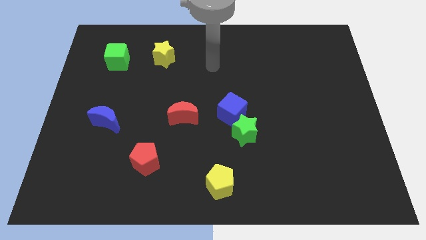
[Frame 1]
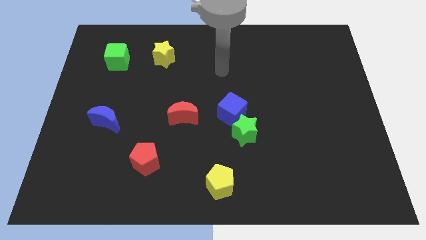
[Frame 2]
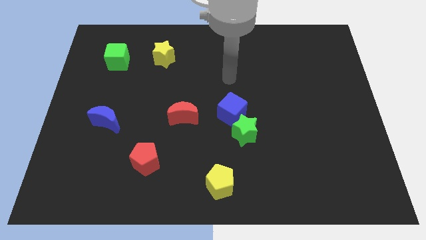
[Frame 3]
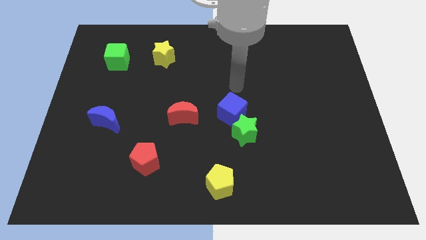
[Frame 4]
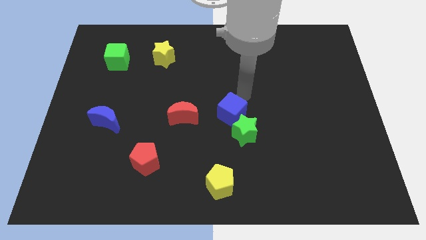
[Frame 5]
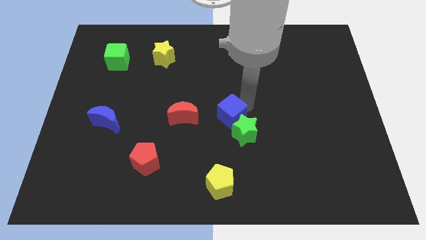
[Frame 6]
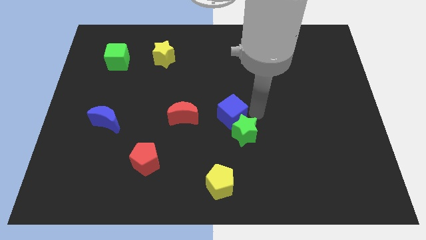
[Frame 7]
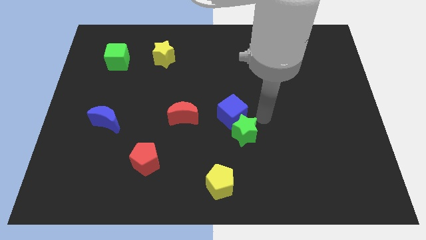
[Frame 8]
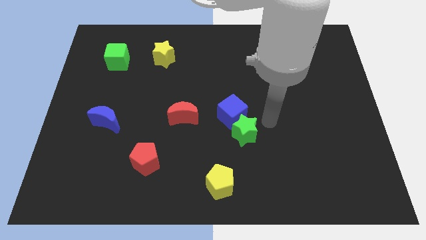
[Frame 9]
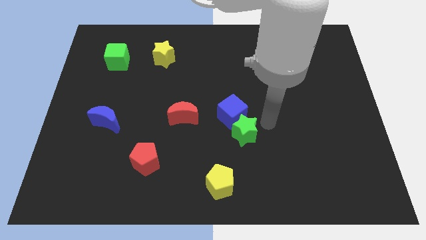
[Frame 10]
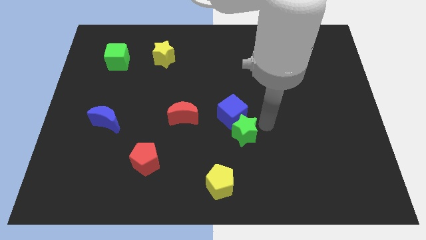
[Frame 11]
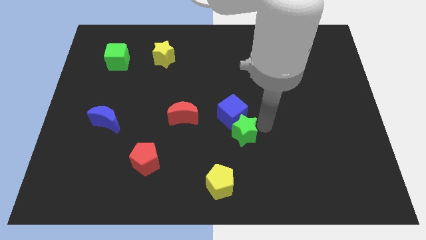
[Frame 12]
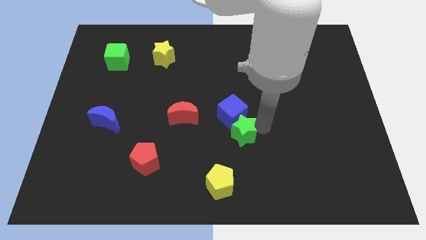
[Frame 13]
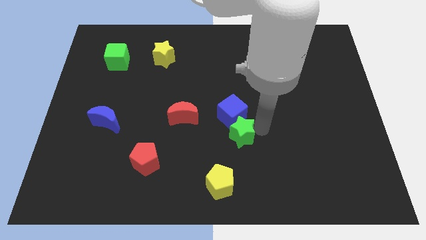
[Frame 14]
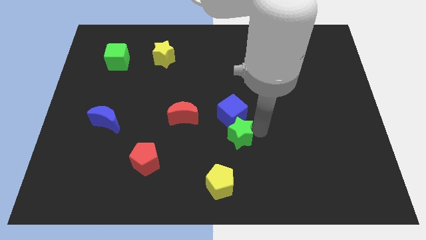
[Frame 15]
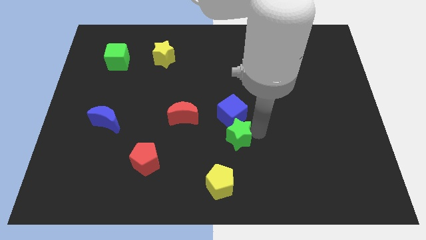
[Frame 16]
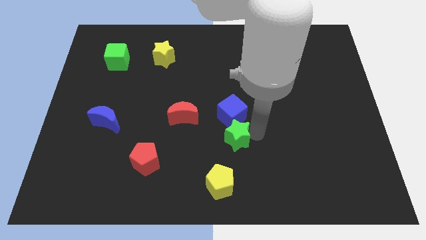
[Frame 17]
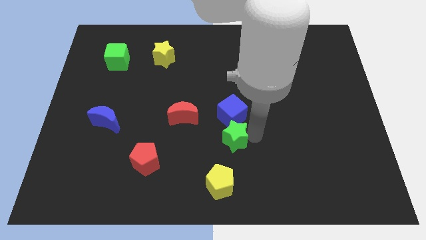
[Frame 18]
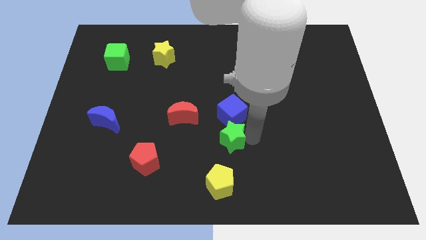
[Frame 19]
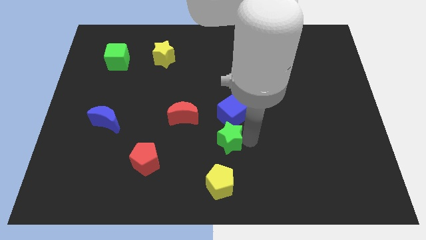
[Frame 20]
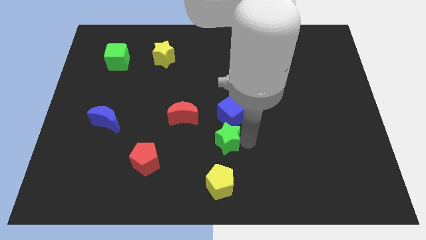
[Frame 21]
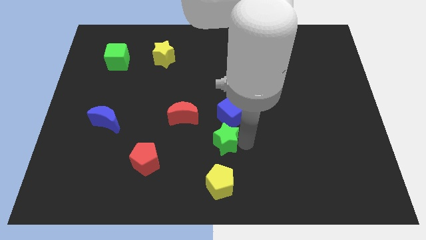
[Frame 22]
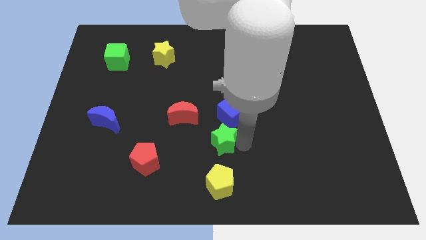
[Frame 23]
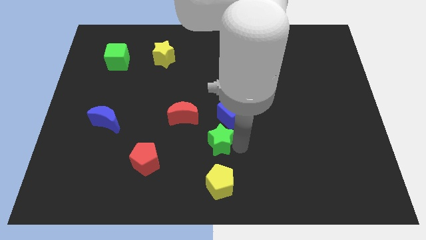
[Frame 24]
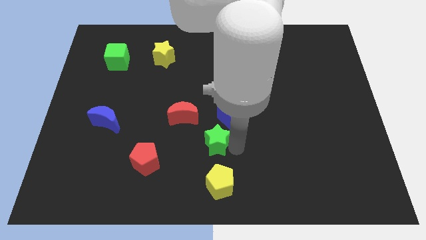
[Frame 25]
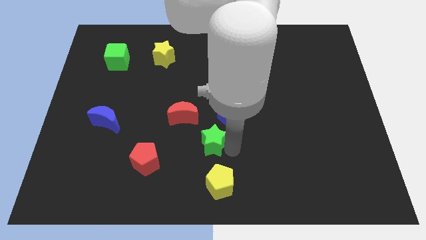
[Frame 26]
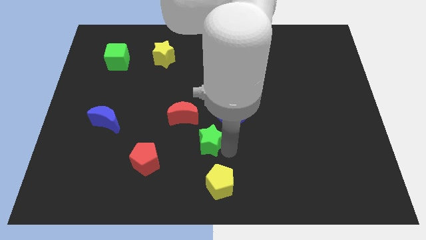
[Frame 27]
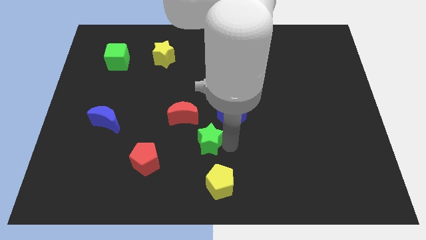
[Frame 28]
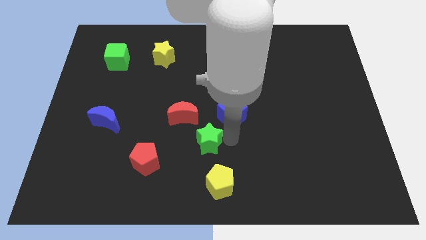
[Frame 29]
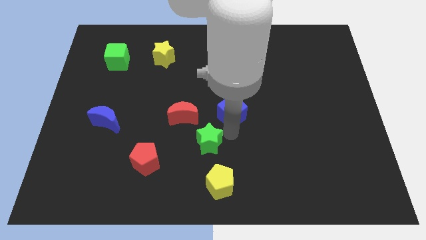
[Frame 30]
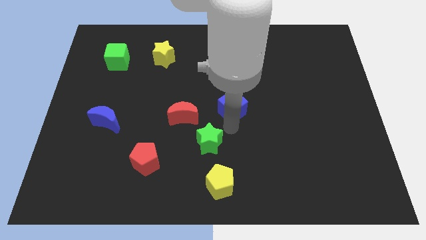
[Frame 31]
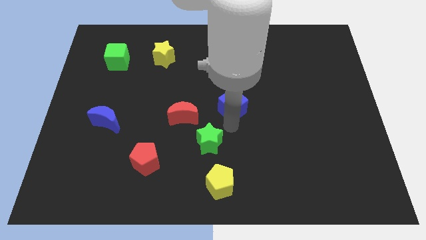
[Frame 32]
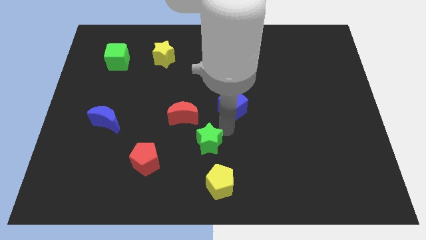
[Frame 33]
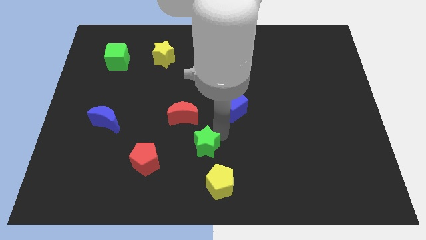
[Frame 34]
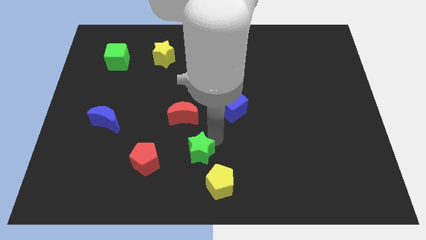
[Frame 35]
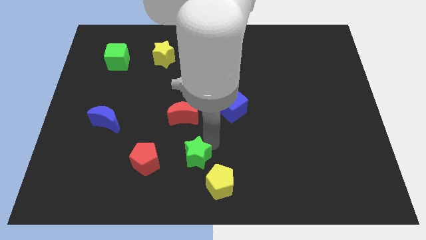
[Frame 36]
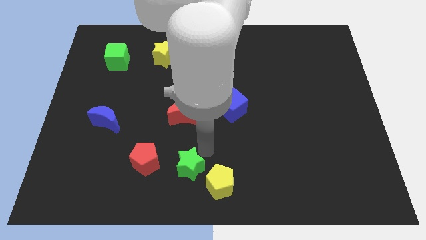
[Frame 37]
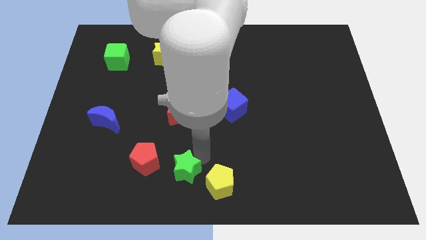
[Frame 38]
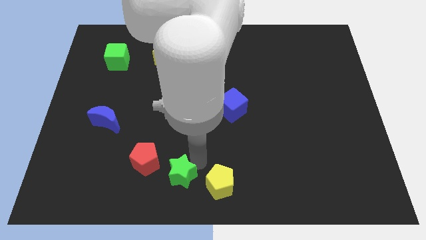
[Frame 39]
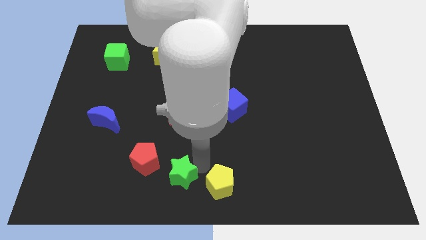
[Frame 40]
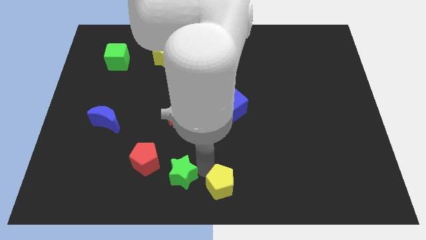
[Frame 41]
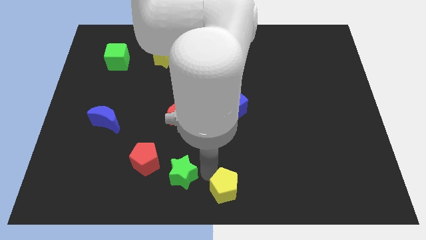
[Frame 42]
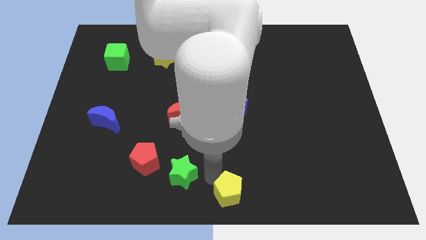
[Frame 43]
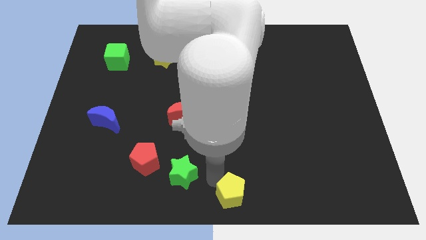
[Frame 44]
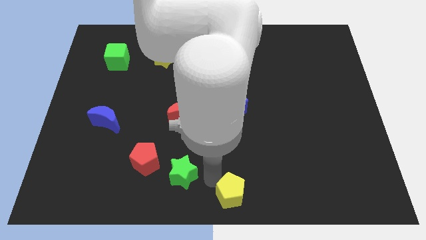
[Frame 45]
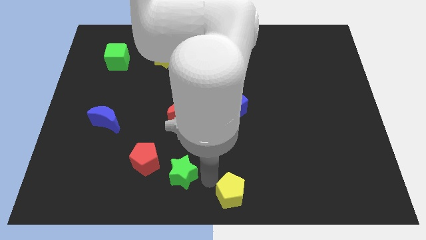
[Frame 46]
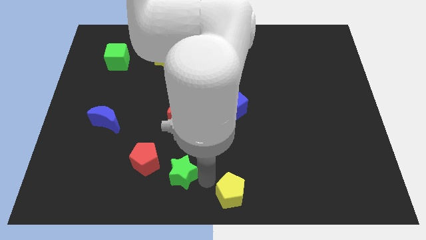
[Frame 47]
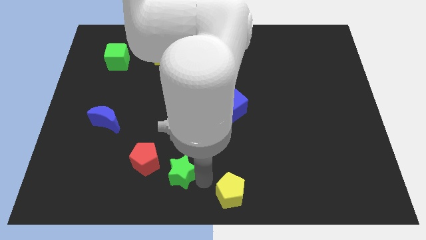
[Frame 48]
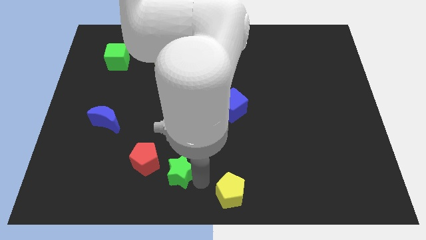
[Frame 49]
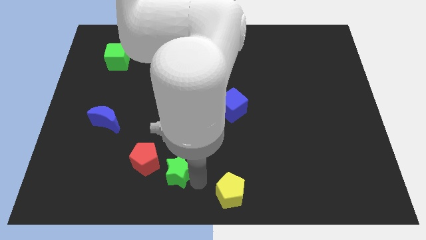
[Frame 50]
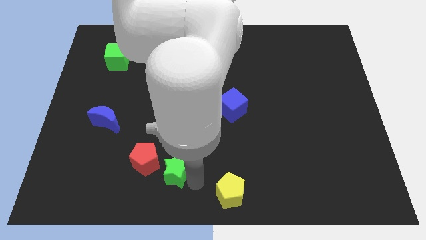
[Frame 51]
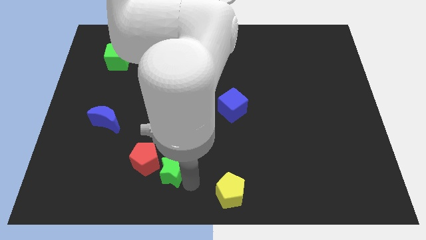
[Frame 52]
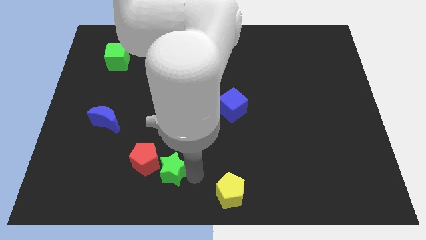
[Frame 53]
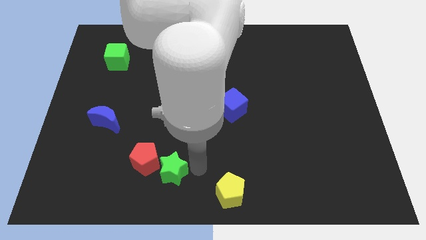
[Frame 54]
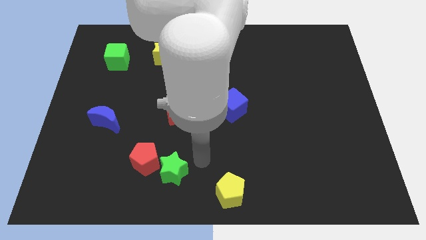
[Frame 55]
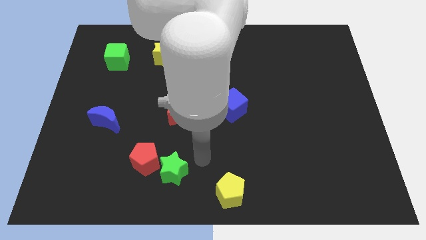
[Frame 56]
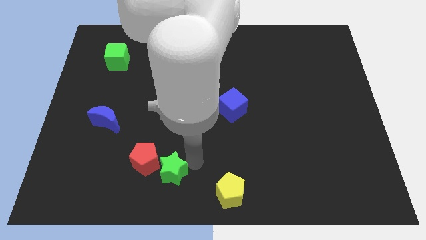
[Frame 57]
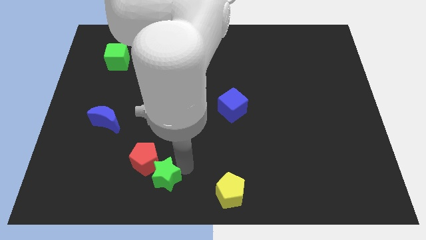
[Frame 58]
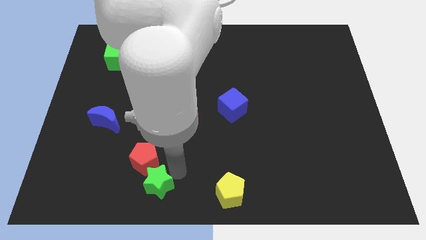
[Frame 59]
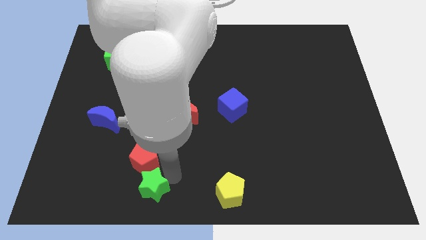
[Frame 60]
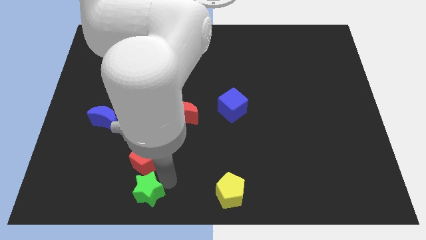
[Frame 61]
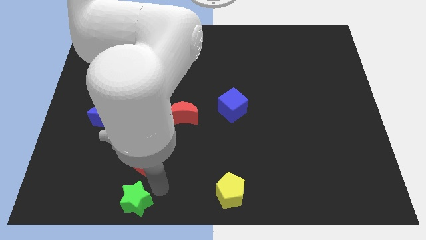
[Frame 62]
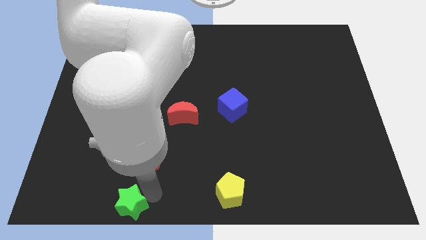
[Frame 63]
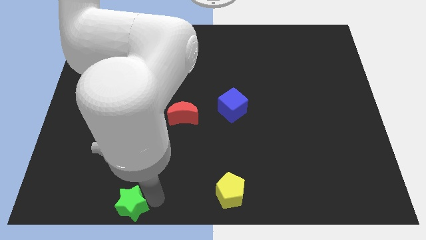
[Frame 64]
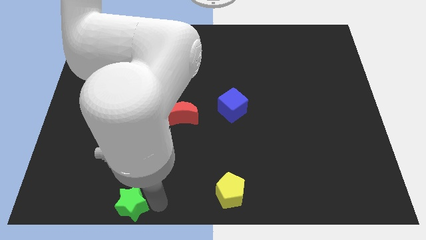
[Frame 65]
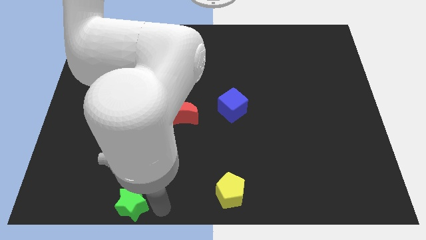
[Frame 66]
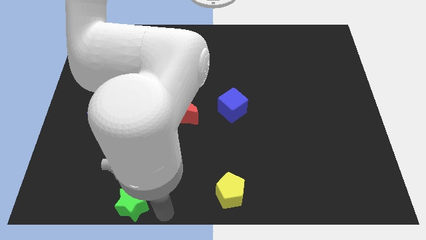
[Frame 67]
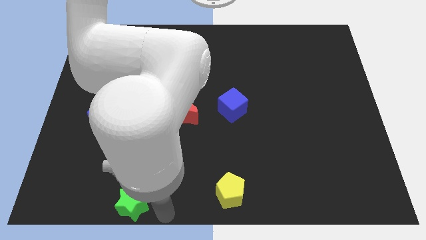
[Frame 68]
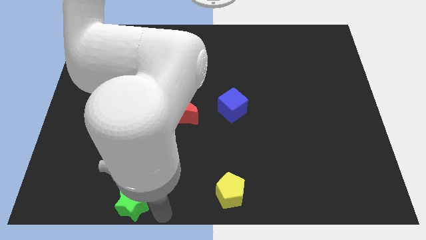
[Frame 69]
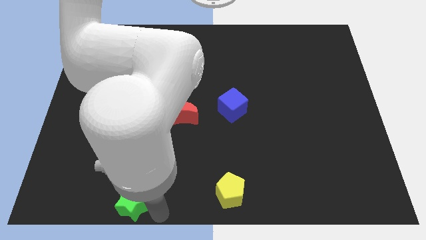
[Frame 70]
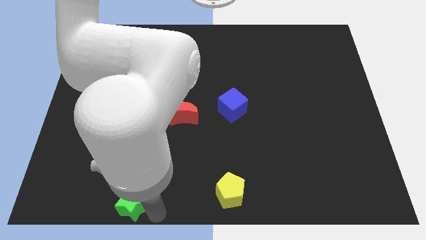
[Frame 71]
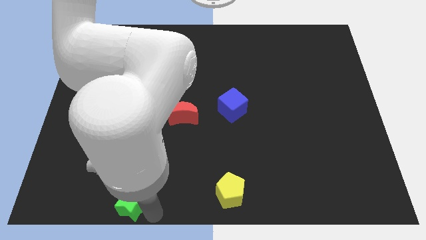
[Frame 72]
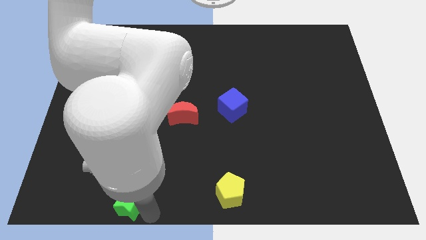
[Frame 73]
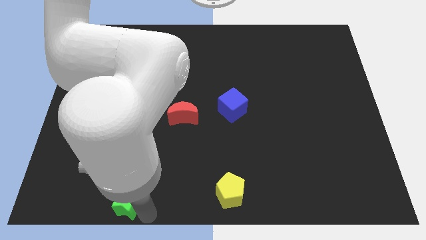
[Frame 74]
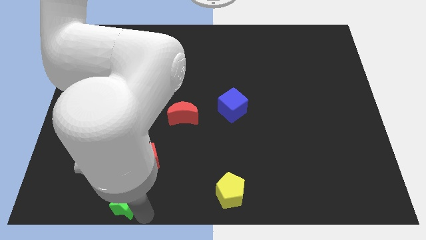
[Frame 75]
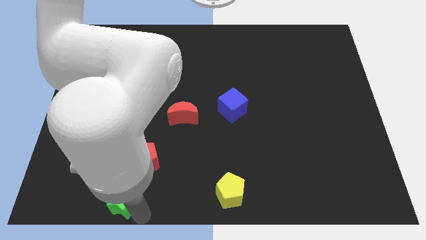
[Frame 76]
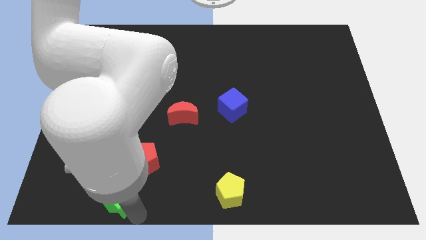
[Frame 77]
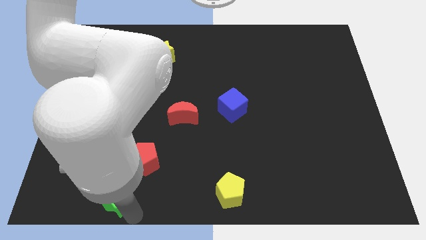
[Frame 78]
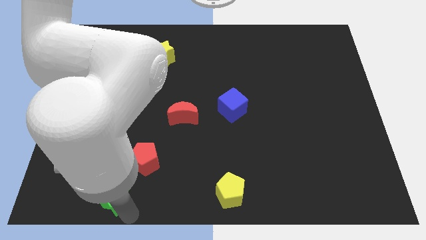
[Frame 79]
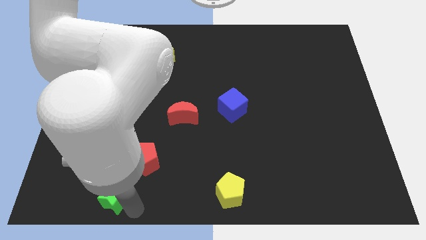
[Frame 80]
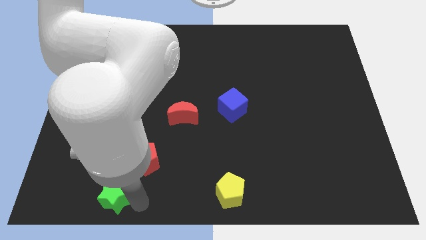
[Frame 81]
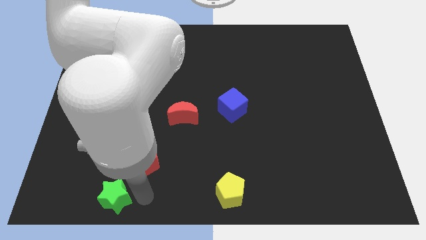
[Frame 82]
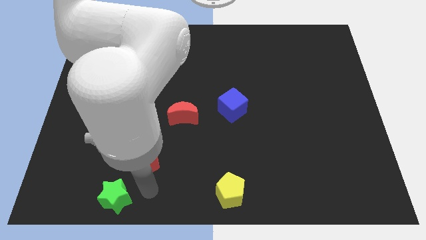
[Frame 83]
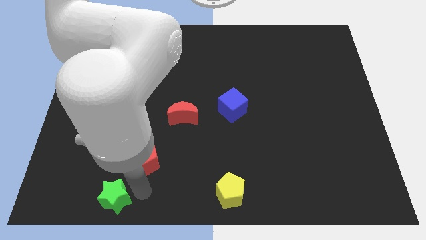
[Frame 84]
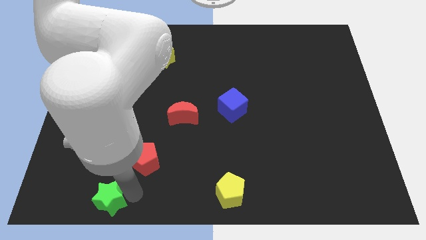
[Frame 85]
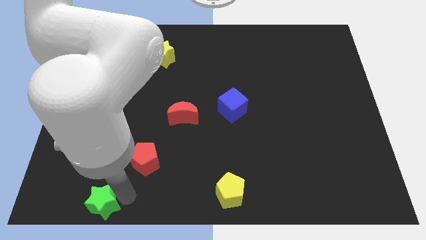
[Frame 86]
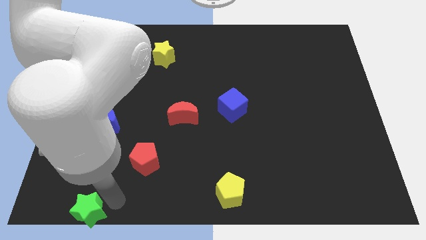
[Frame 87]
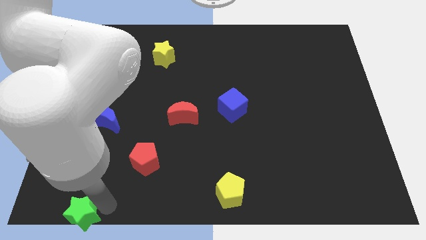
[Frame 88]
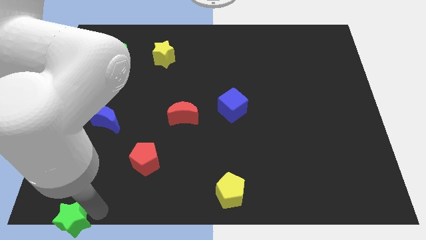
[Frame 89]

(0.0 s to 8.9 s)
push the green star to the lower left corner
